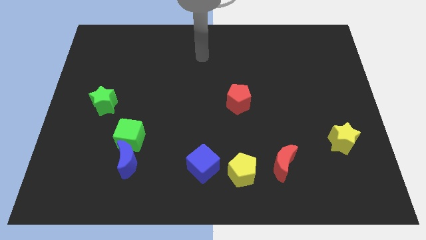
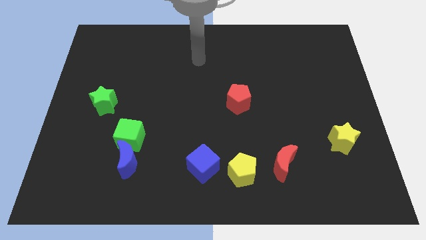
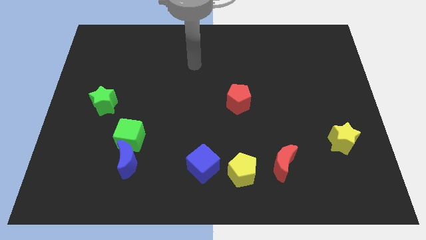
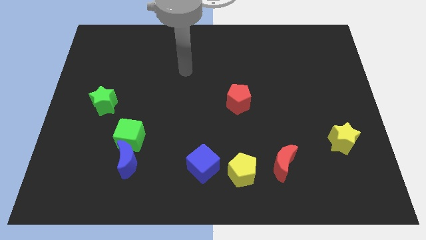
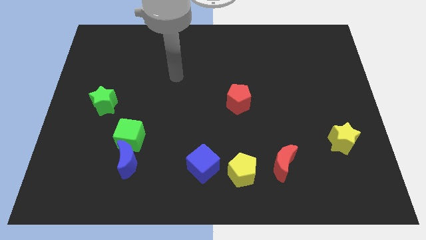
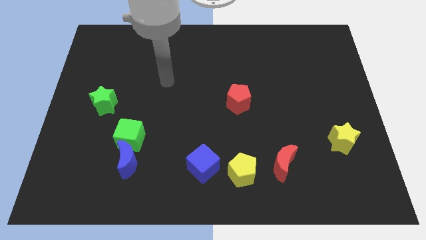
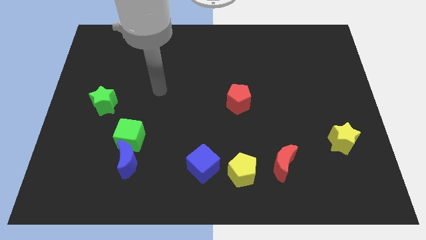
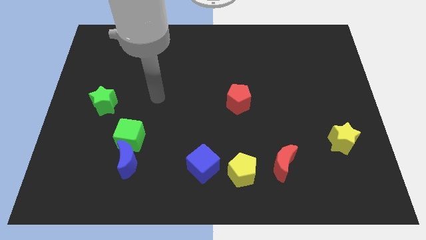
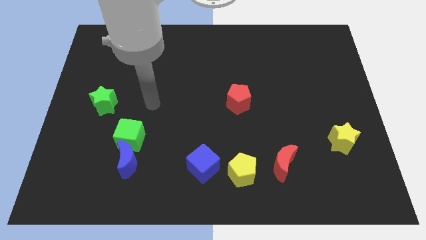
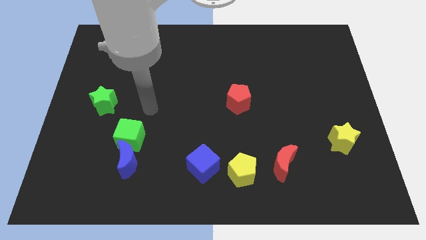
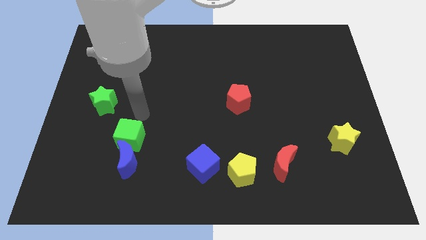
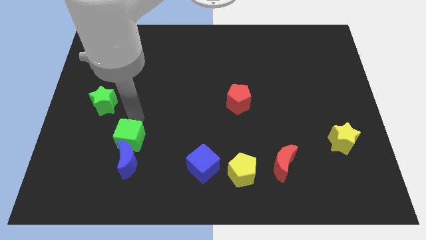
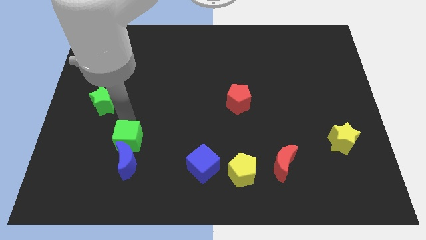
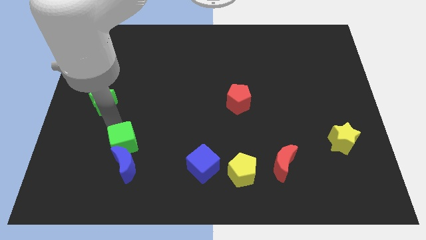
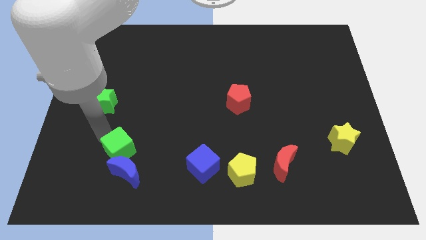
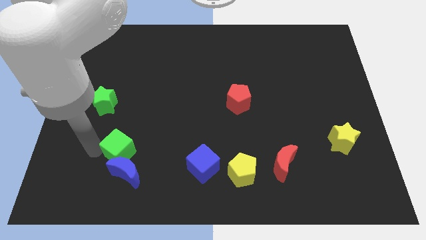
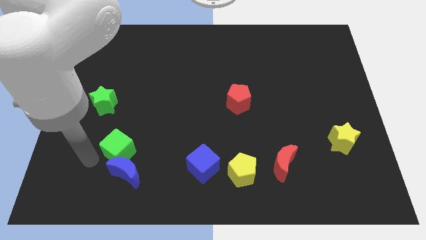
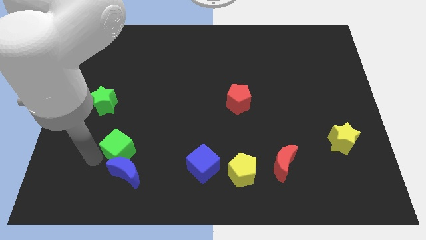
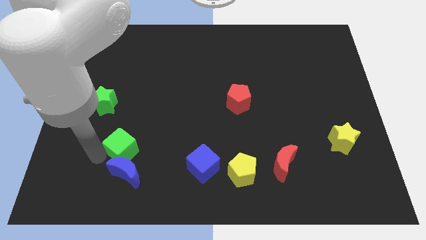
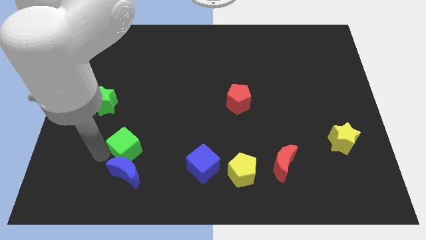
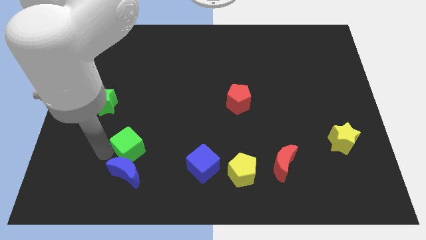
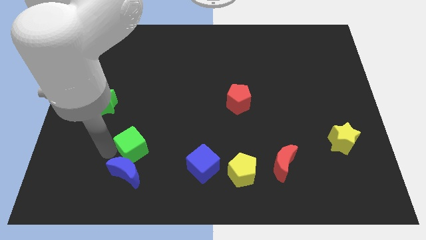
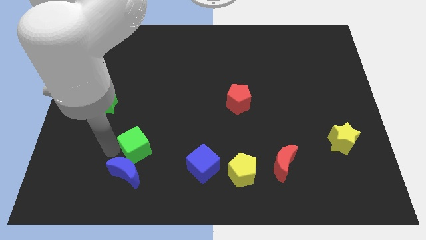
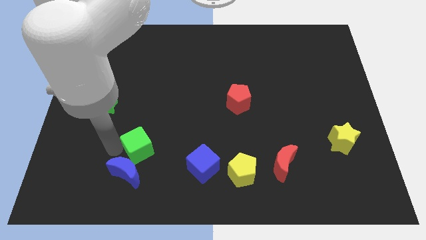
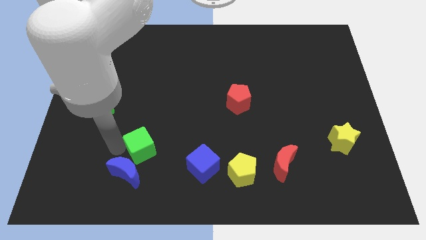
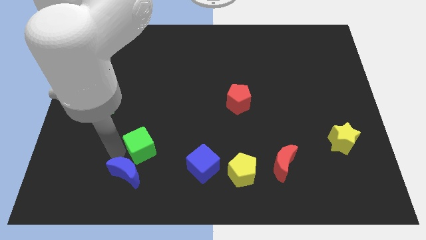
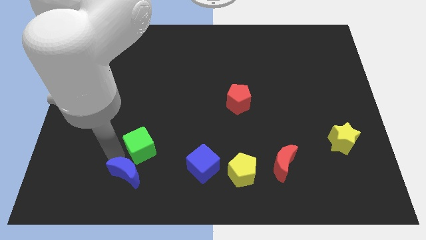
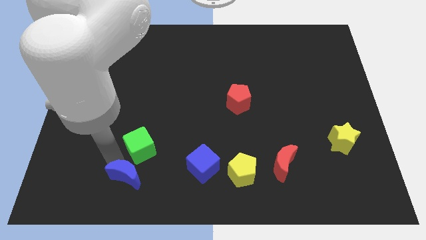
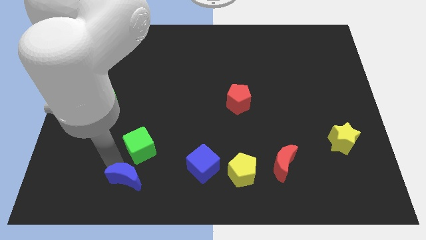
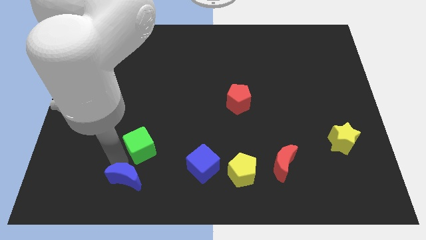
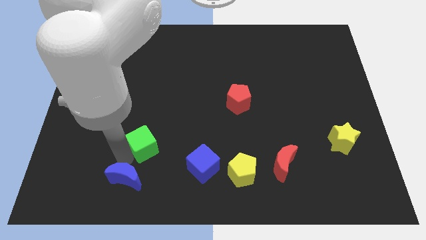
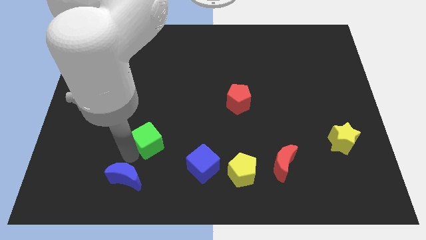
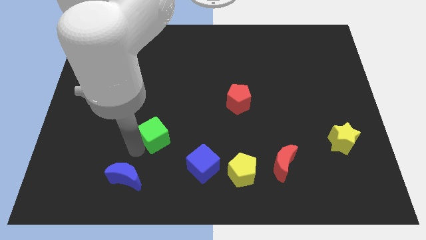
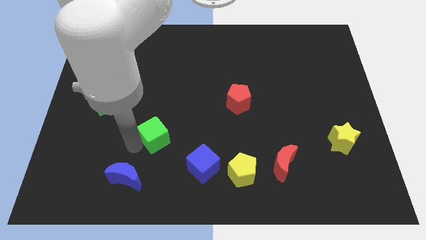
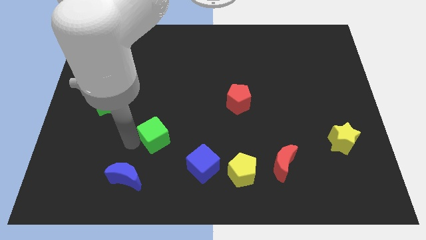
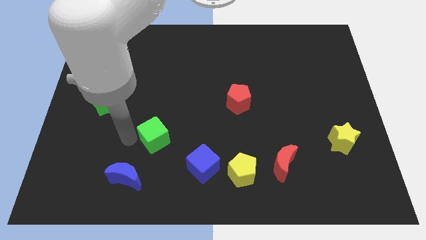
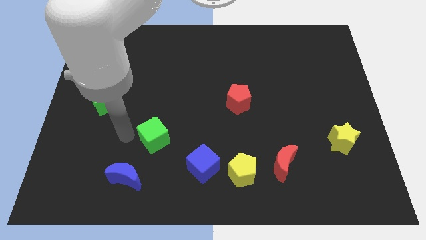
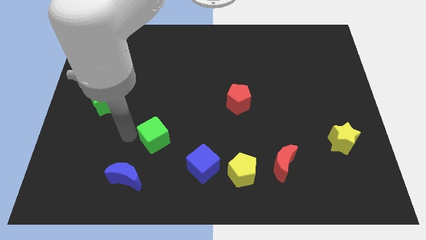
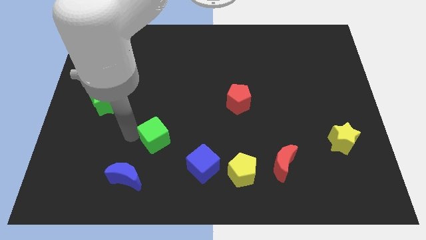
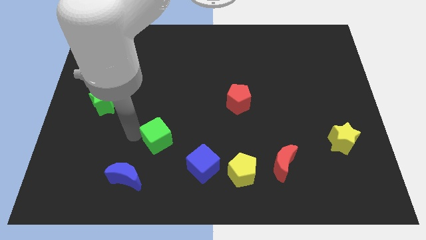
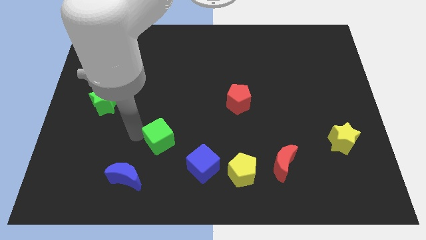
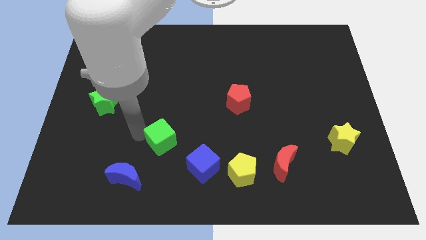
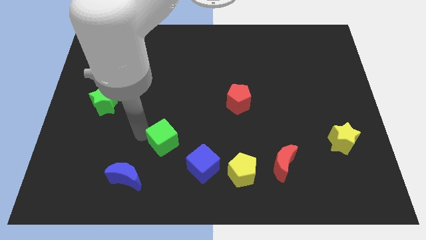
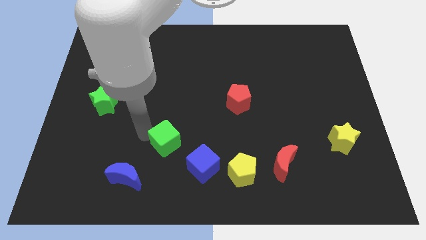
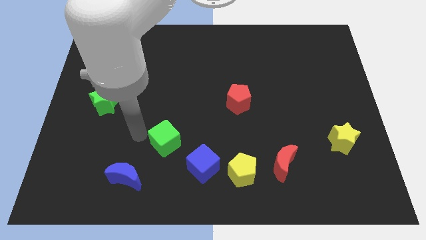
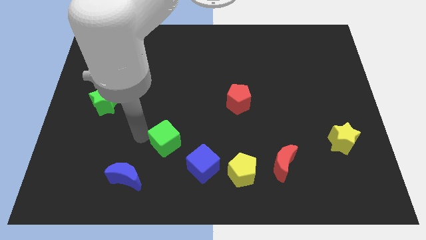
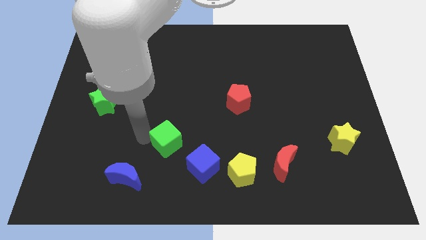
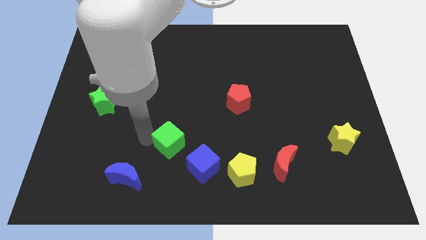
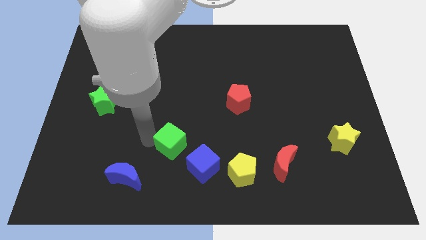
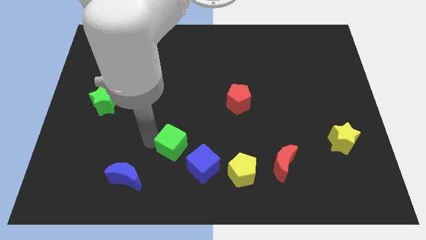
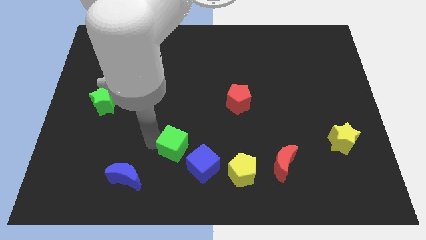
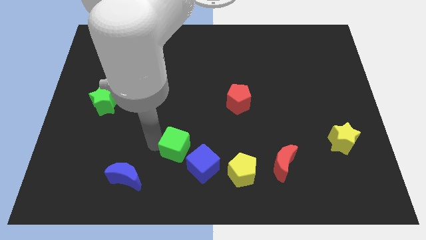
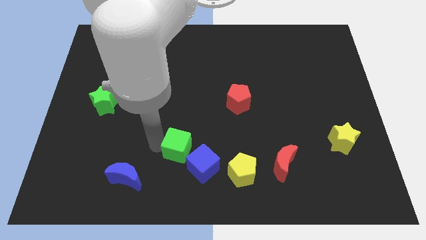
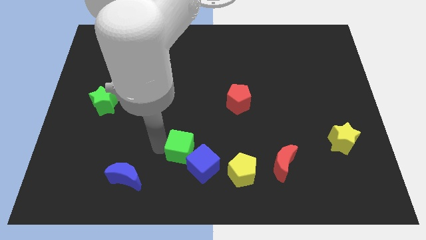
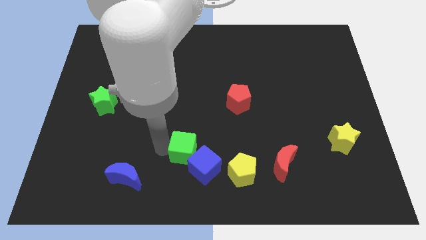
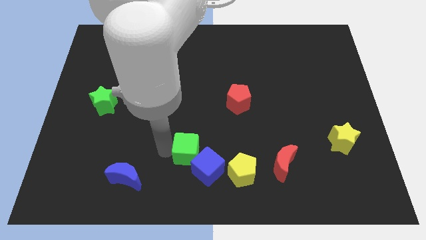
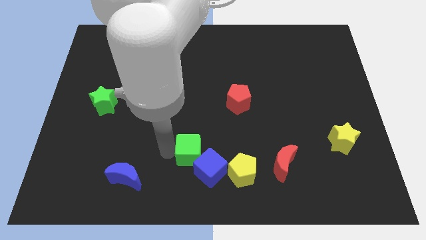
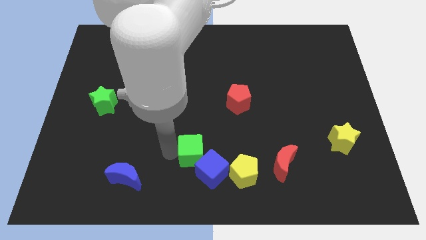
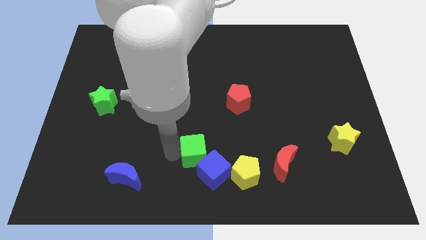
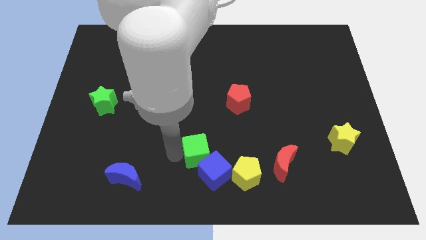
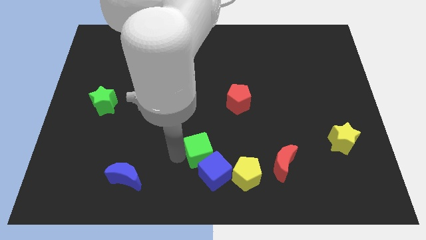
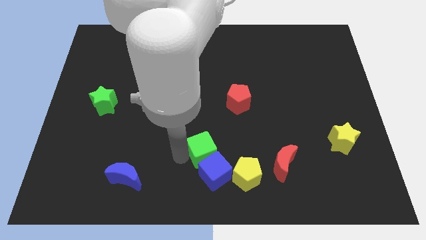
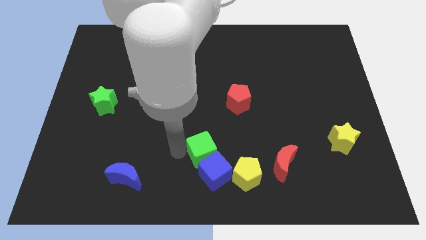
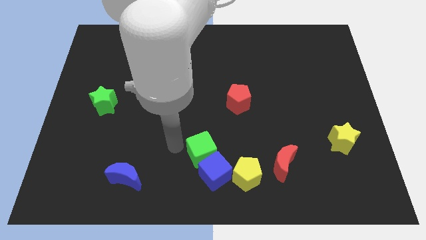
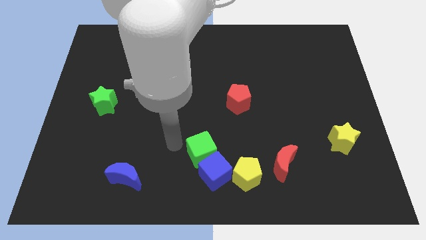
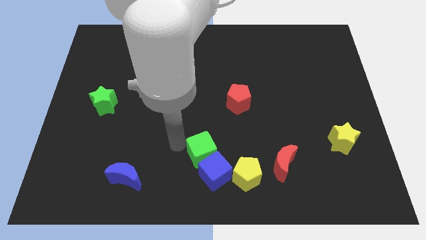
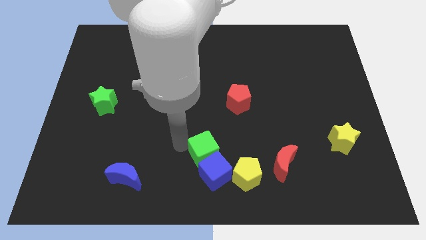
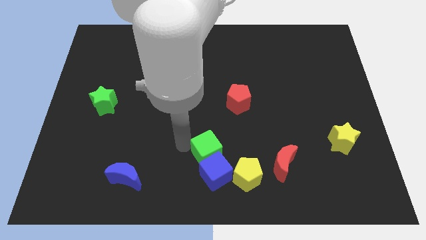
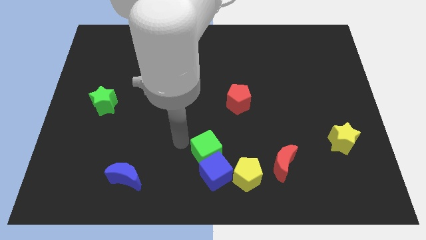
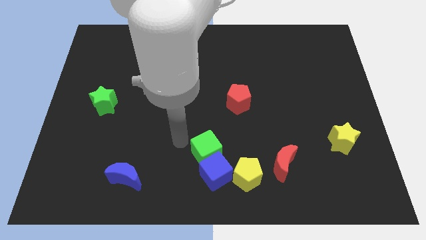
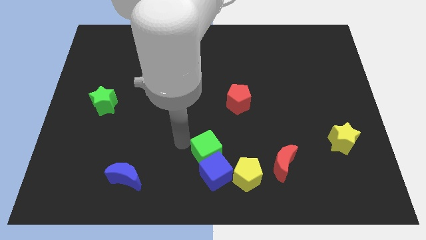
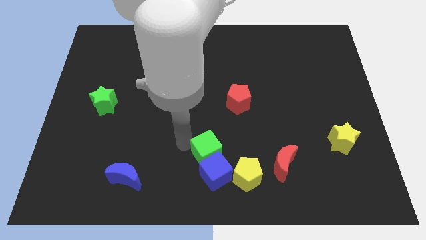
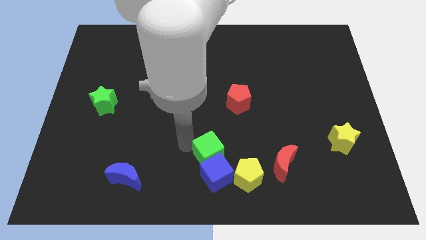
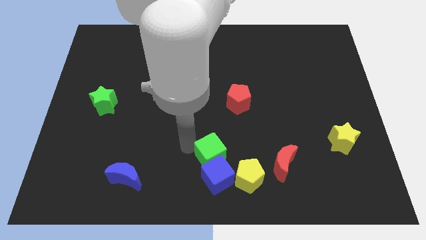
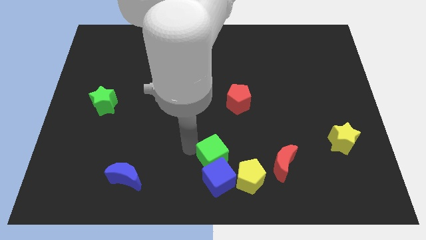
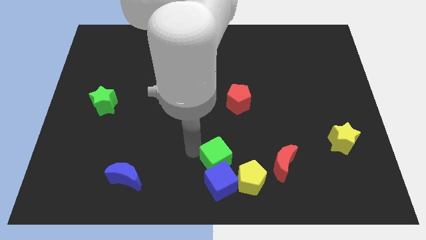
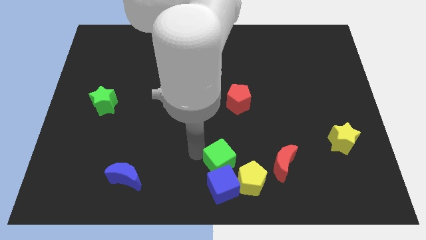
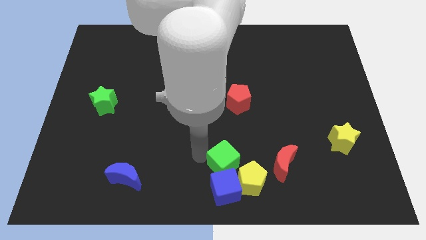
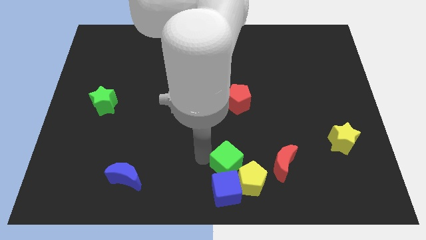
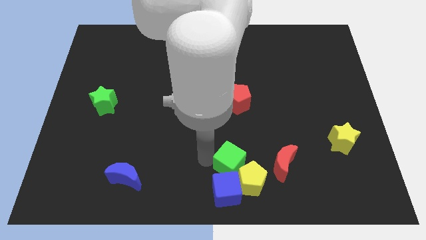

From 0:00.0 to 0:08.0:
put the green cube towards the yellow pentagon
